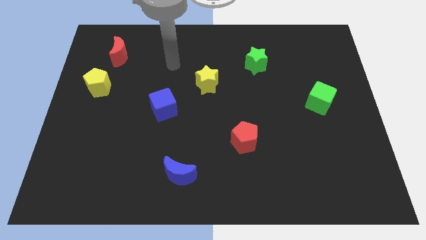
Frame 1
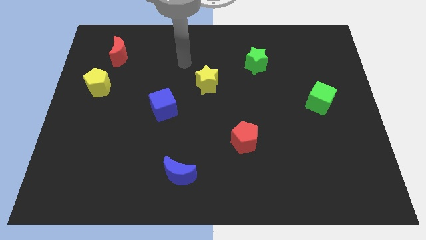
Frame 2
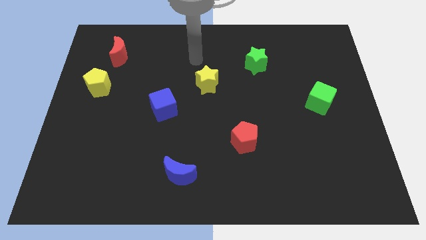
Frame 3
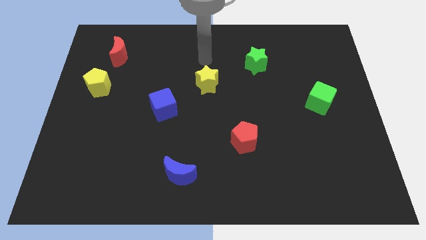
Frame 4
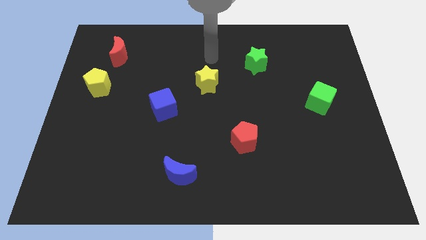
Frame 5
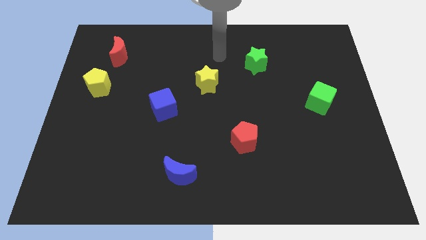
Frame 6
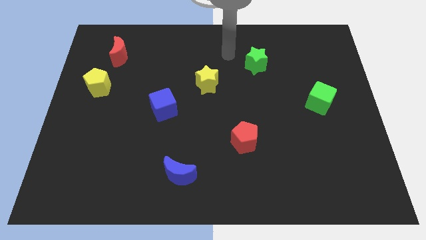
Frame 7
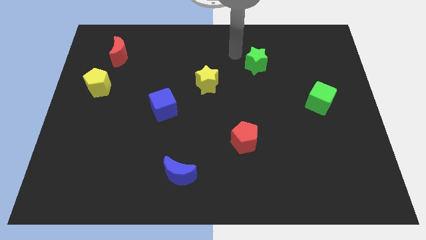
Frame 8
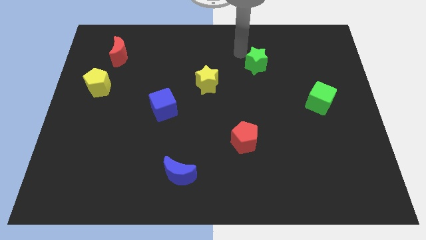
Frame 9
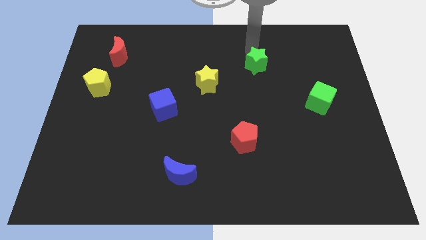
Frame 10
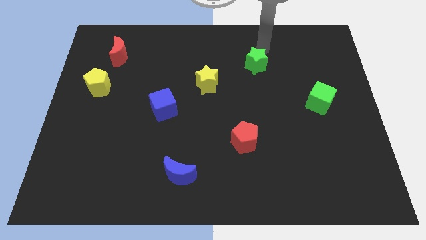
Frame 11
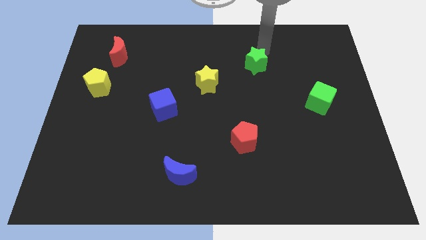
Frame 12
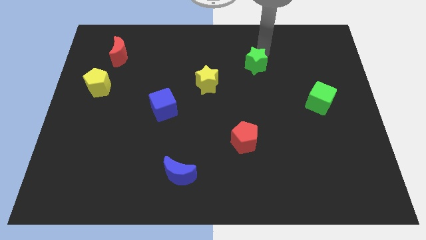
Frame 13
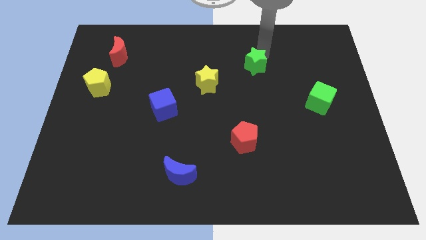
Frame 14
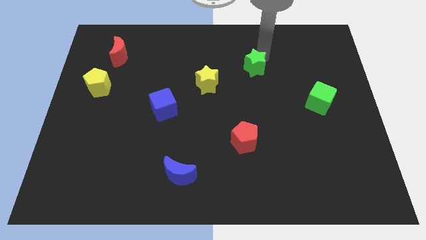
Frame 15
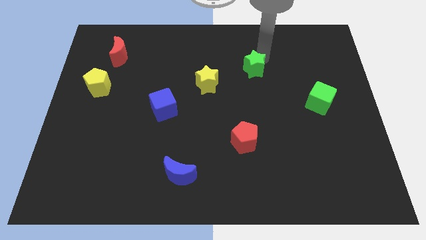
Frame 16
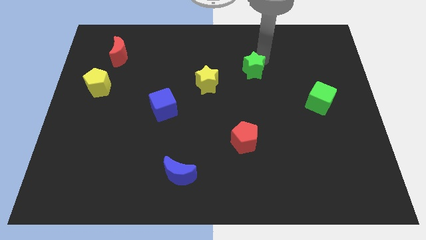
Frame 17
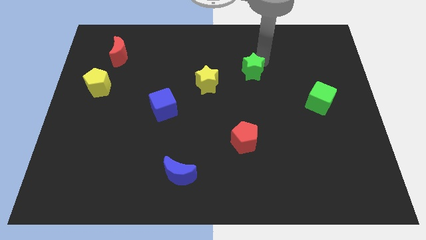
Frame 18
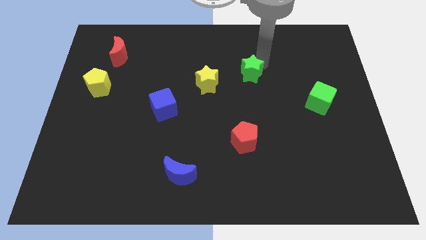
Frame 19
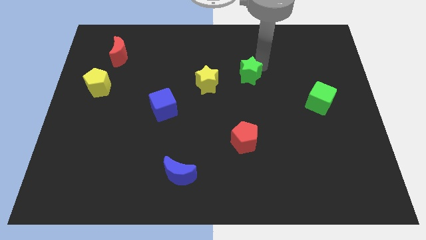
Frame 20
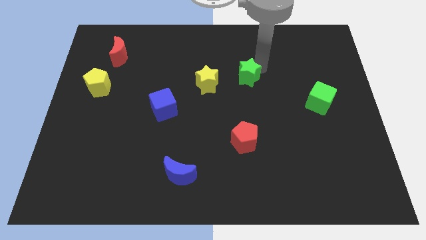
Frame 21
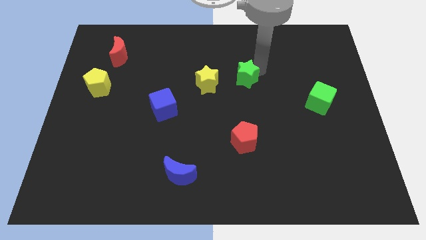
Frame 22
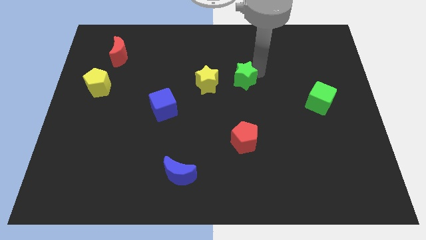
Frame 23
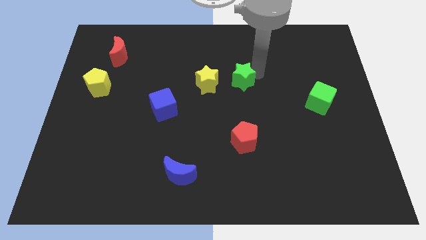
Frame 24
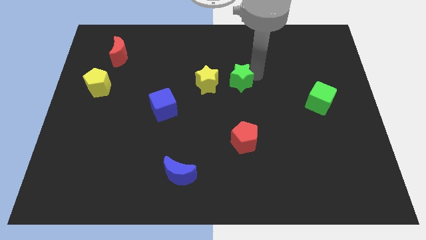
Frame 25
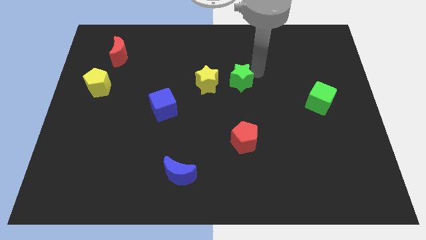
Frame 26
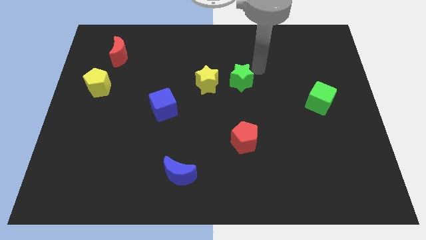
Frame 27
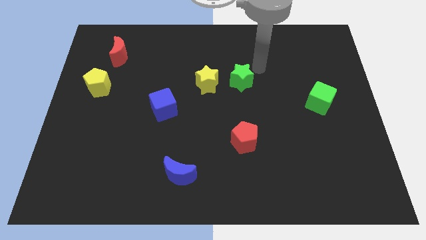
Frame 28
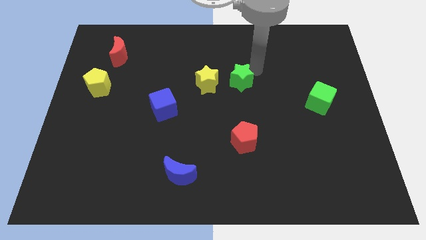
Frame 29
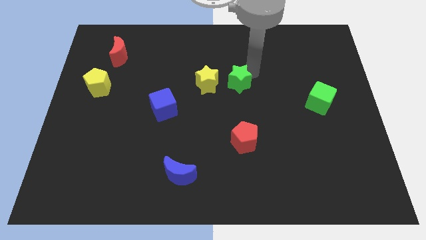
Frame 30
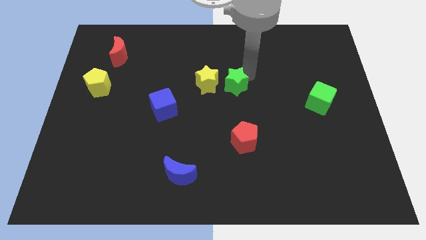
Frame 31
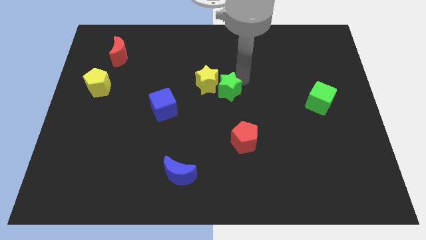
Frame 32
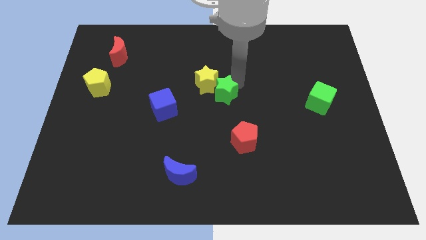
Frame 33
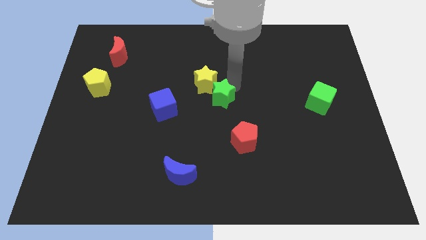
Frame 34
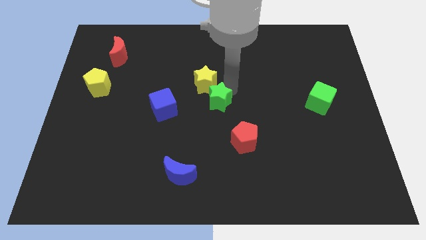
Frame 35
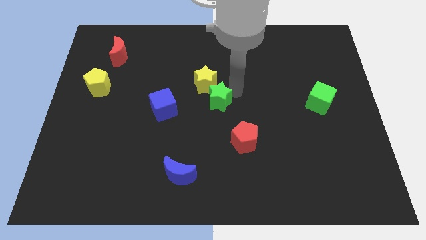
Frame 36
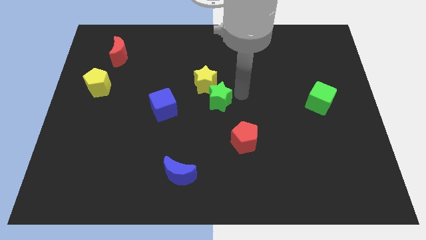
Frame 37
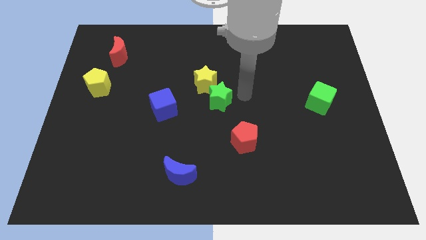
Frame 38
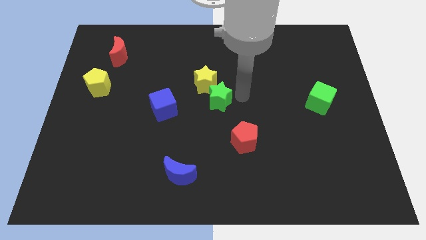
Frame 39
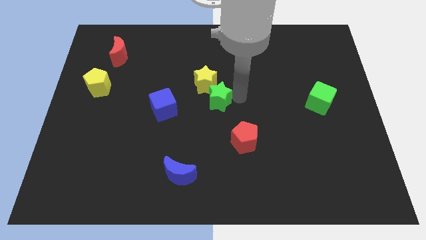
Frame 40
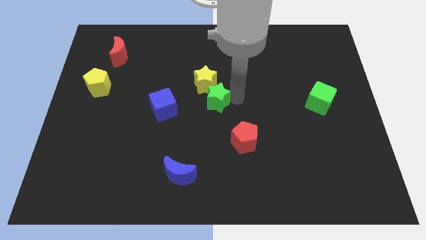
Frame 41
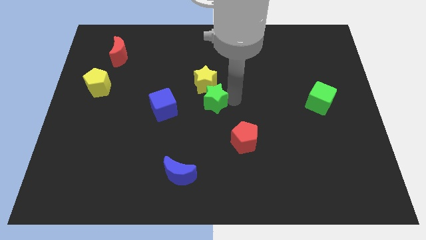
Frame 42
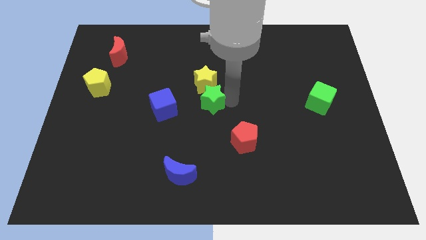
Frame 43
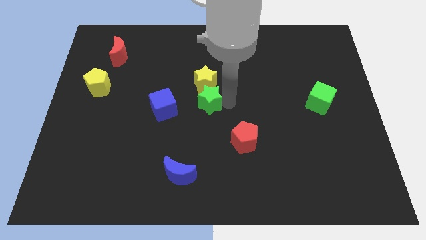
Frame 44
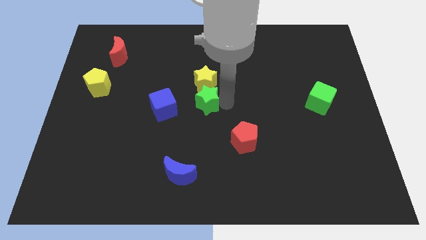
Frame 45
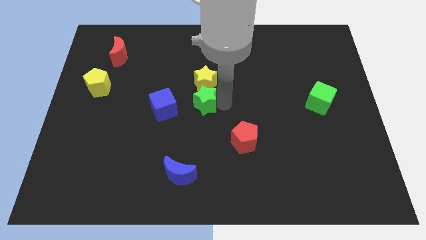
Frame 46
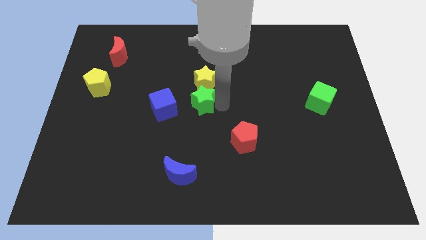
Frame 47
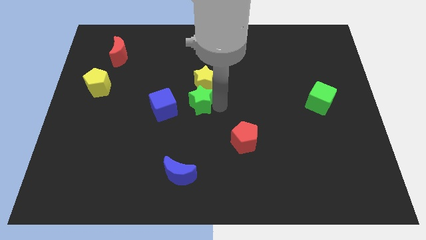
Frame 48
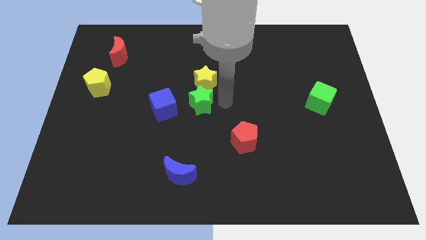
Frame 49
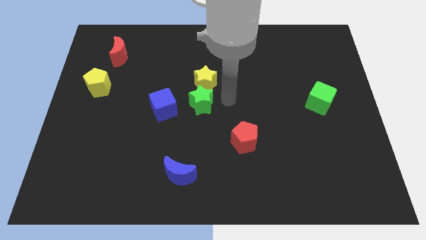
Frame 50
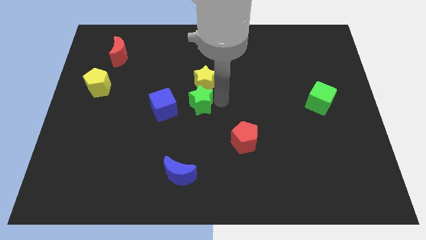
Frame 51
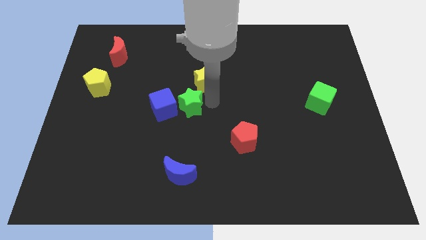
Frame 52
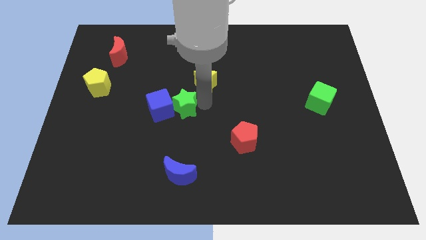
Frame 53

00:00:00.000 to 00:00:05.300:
move the green star to the blue cube

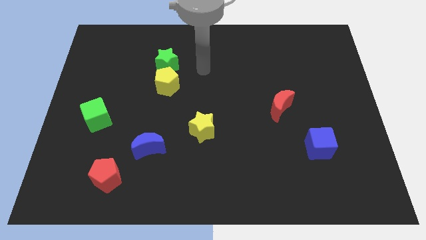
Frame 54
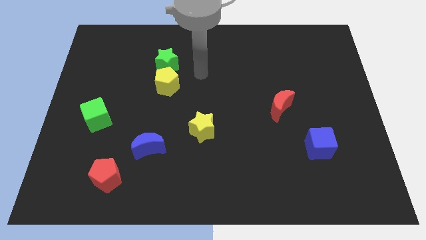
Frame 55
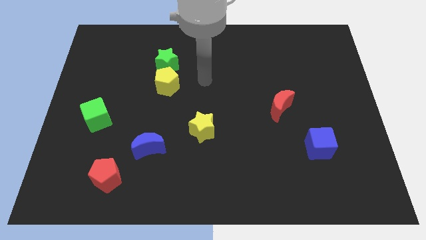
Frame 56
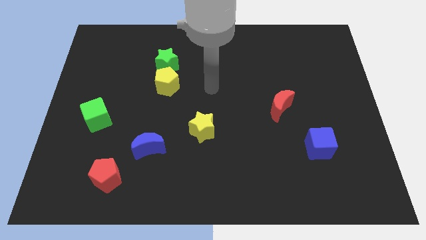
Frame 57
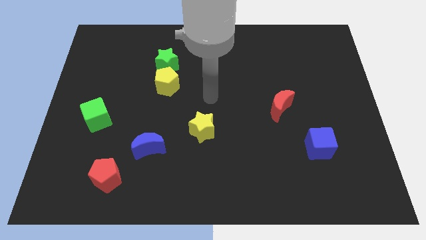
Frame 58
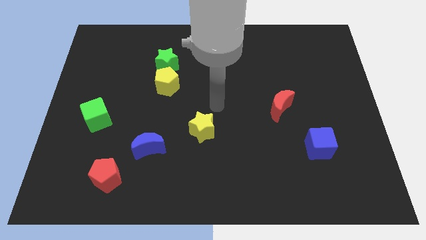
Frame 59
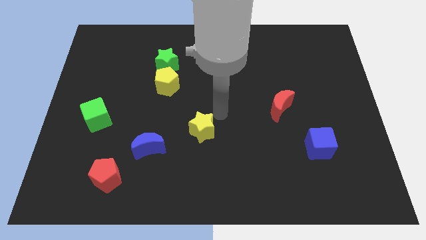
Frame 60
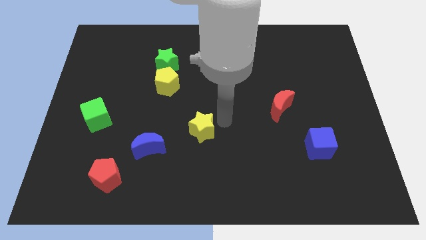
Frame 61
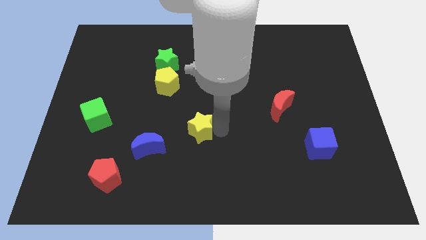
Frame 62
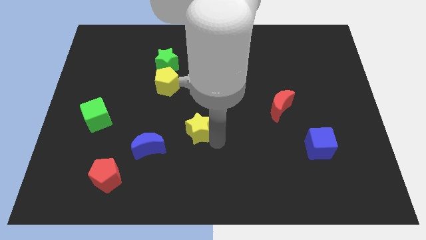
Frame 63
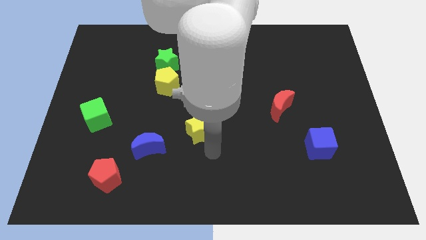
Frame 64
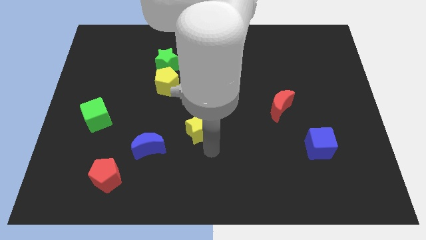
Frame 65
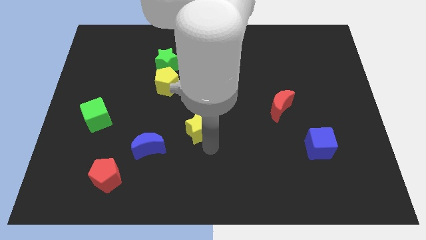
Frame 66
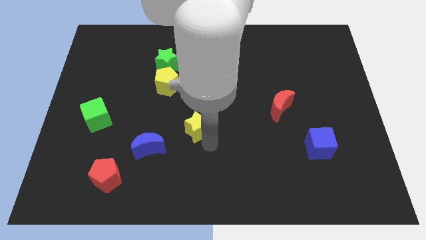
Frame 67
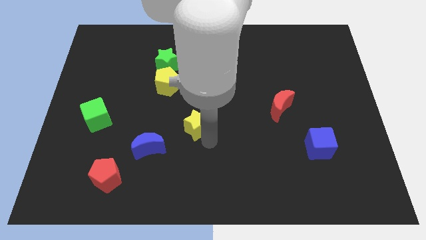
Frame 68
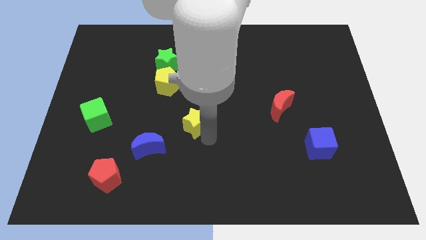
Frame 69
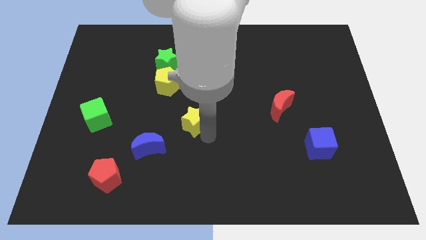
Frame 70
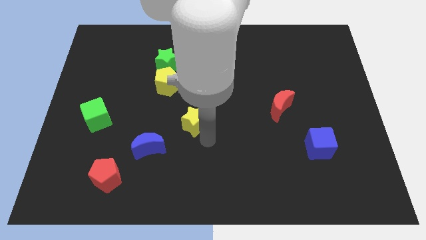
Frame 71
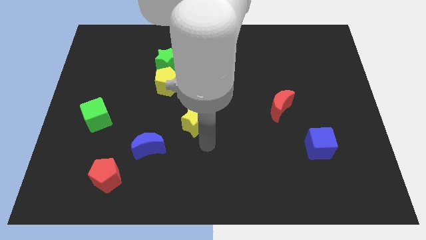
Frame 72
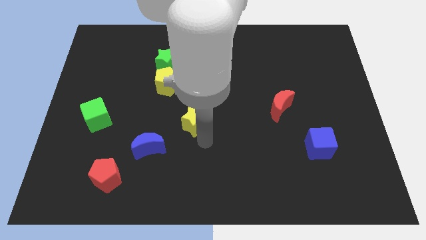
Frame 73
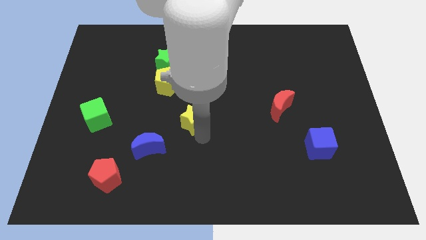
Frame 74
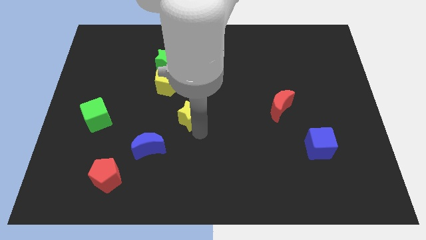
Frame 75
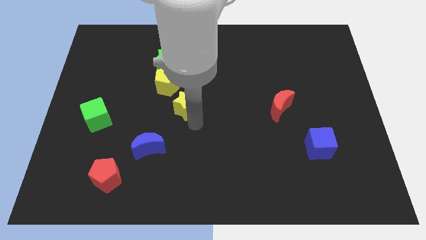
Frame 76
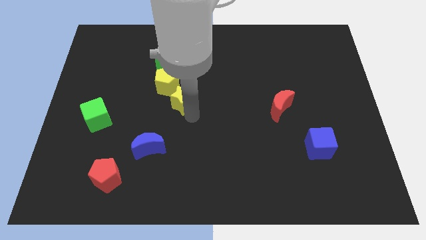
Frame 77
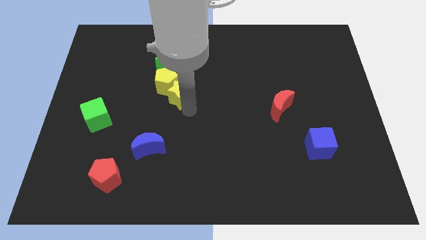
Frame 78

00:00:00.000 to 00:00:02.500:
slide the yellow star close to the yellow pentagon
